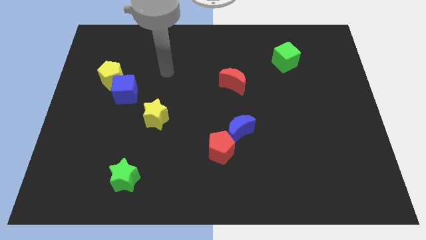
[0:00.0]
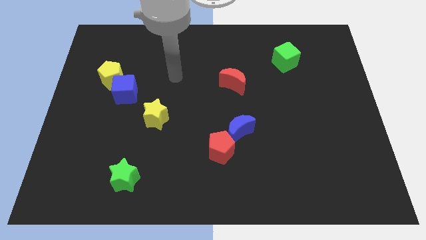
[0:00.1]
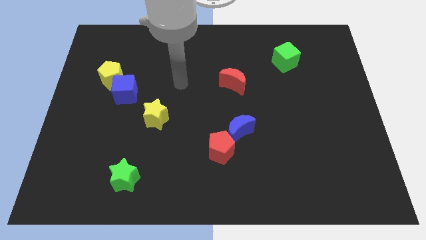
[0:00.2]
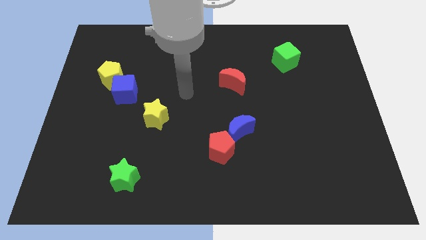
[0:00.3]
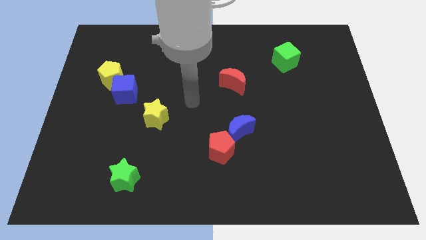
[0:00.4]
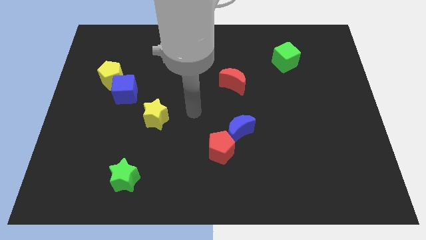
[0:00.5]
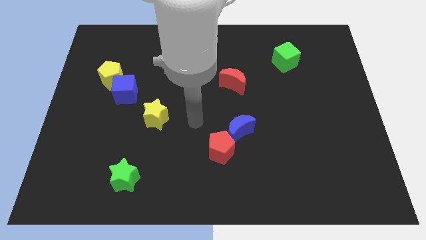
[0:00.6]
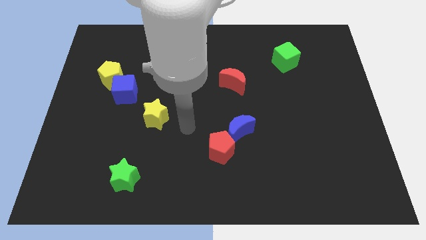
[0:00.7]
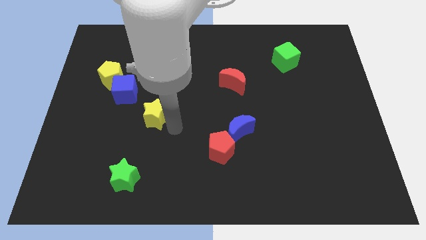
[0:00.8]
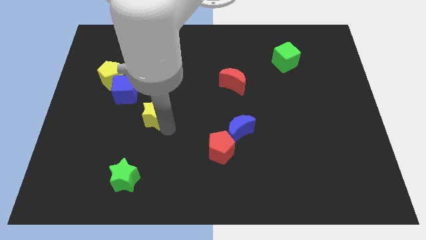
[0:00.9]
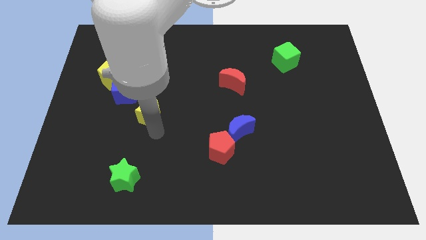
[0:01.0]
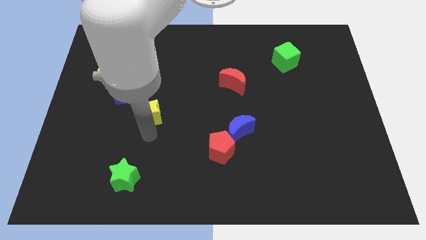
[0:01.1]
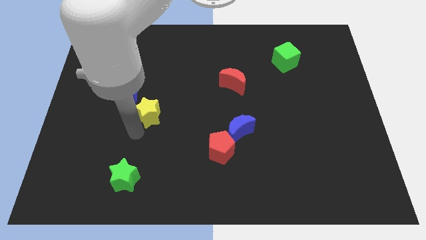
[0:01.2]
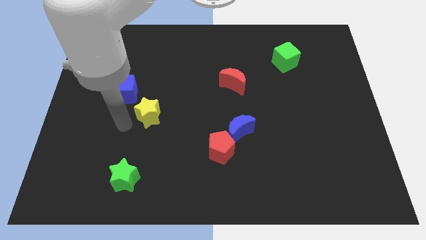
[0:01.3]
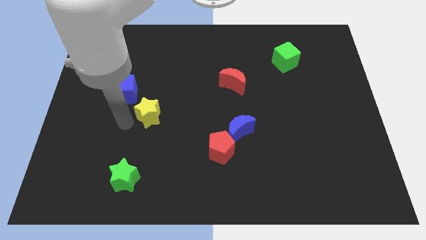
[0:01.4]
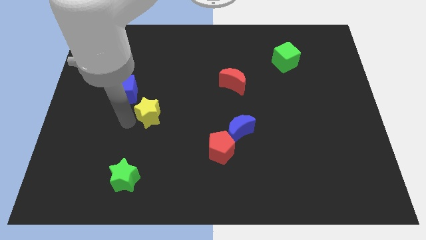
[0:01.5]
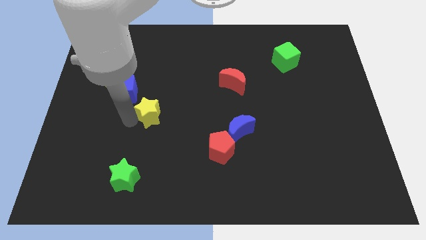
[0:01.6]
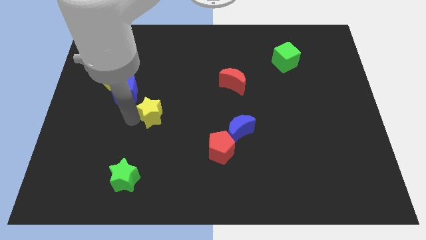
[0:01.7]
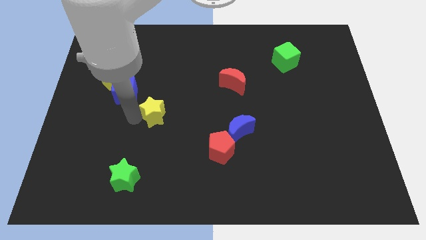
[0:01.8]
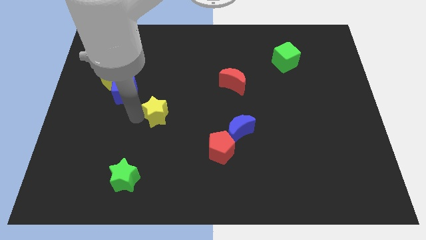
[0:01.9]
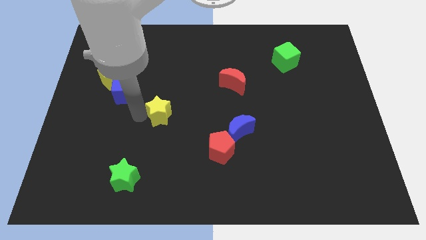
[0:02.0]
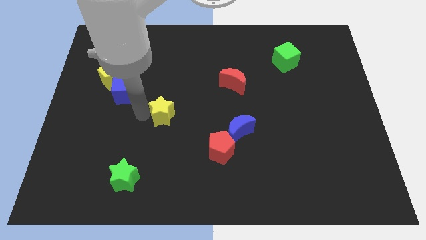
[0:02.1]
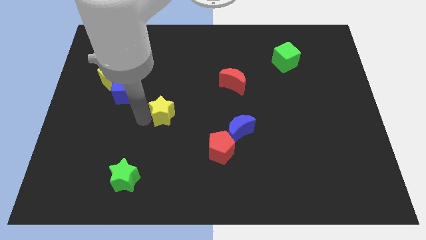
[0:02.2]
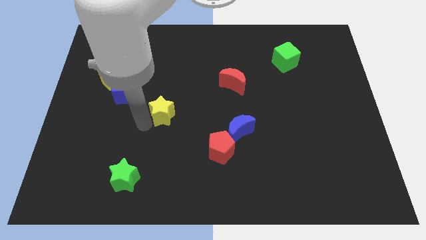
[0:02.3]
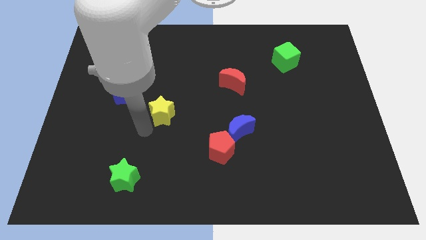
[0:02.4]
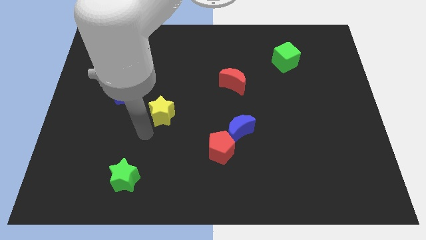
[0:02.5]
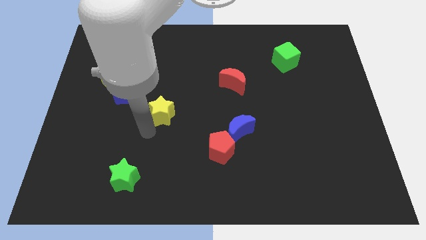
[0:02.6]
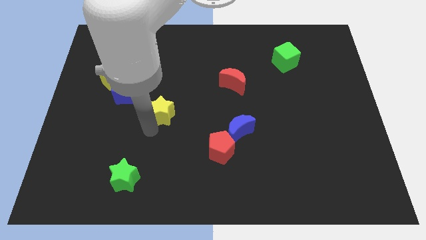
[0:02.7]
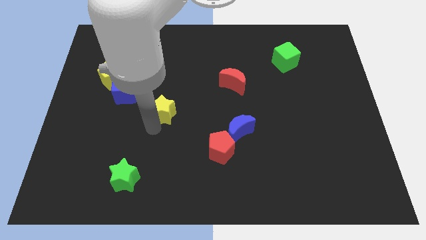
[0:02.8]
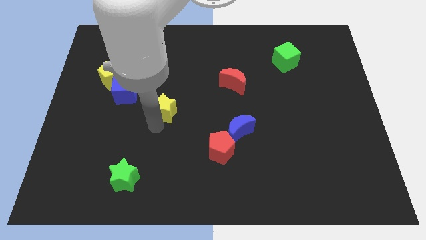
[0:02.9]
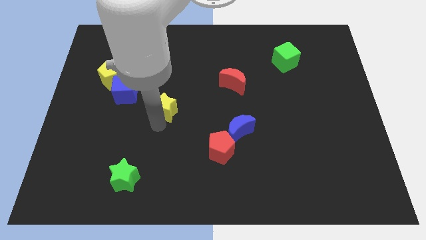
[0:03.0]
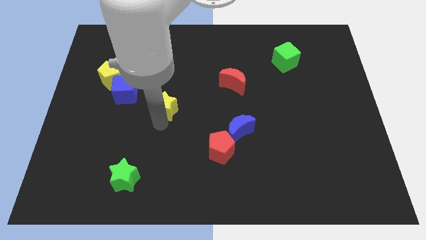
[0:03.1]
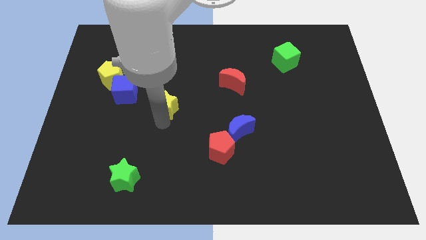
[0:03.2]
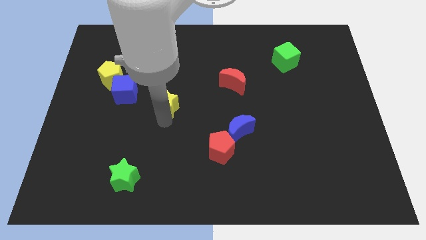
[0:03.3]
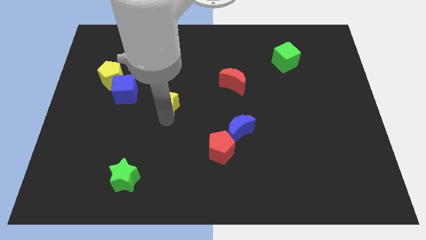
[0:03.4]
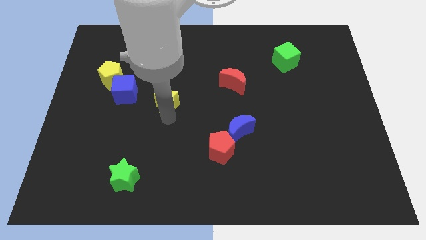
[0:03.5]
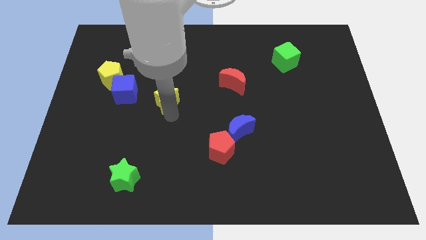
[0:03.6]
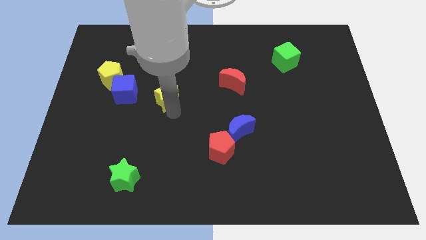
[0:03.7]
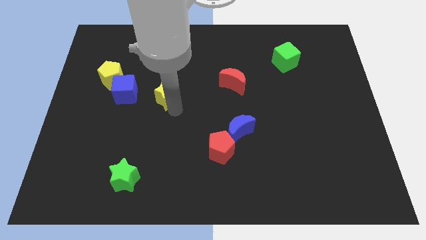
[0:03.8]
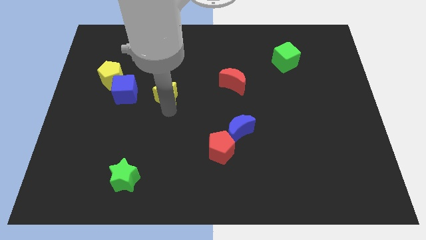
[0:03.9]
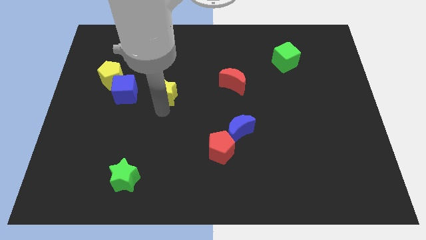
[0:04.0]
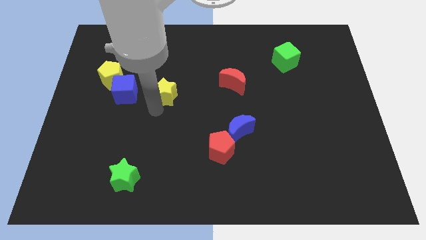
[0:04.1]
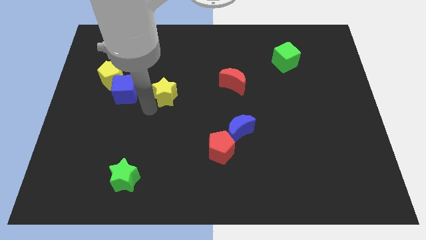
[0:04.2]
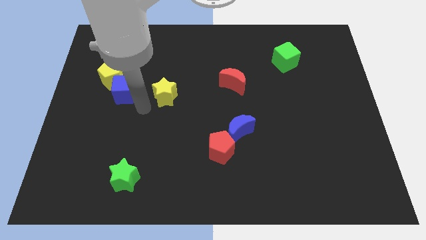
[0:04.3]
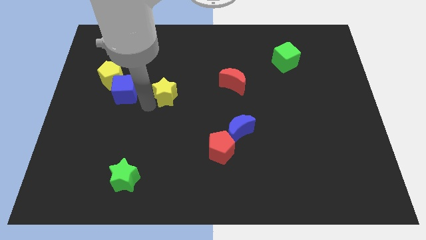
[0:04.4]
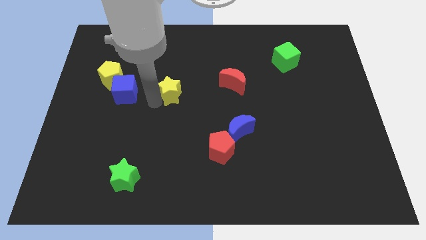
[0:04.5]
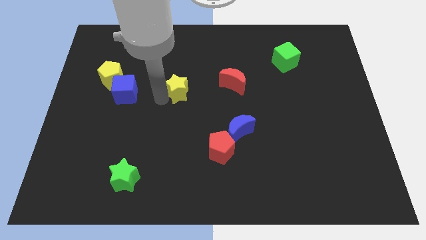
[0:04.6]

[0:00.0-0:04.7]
move the yellow star to the left of the red moon

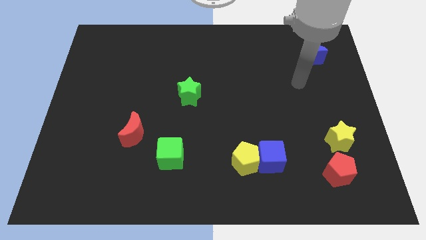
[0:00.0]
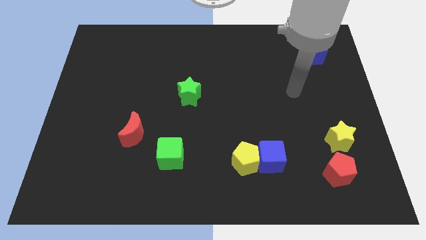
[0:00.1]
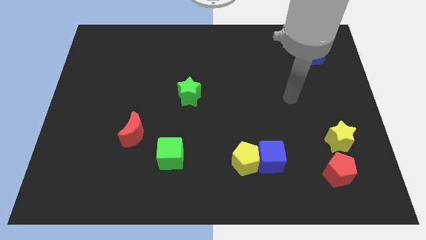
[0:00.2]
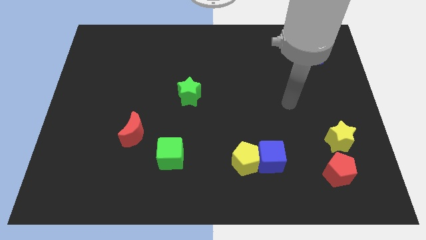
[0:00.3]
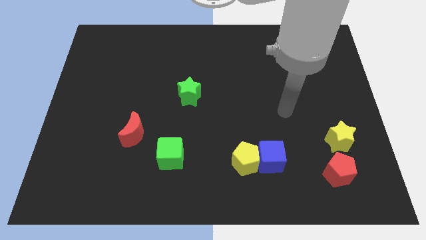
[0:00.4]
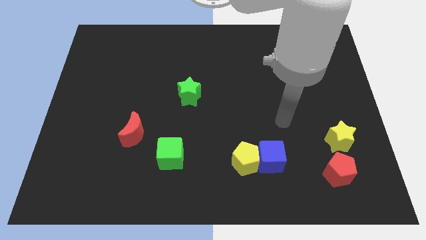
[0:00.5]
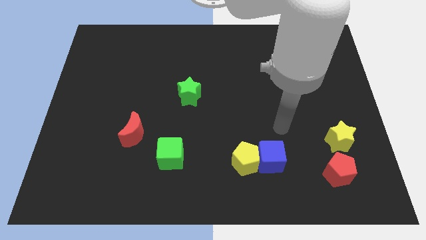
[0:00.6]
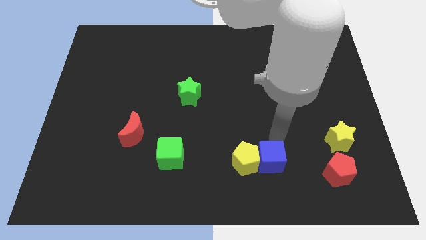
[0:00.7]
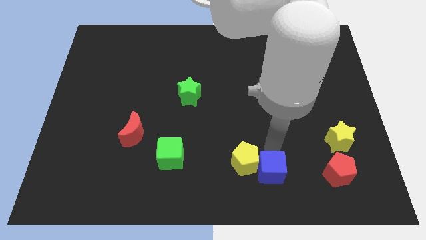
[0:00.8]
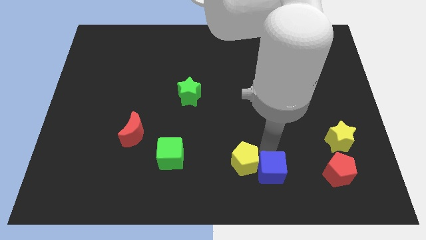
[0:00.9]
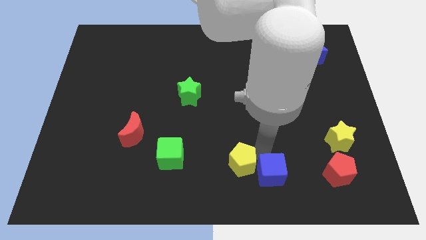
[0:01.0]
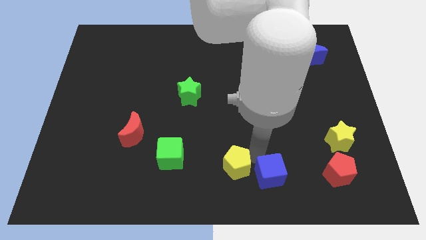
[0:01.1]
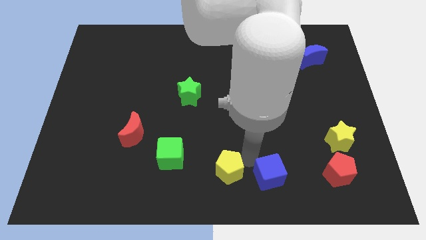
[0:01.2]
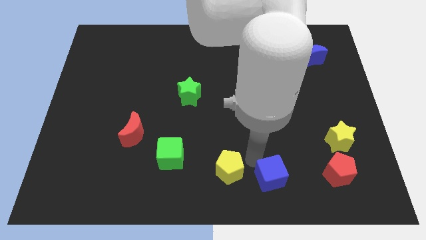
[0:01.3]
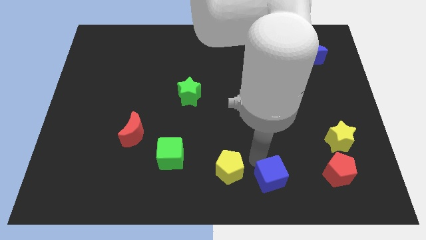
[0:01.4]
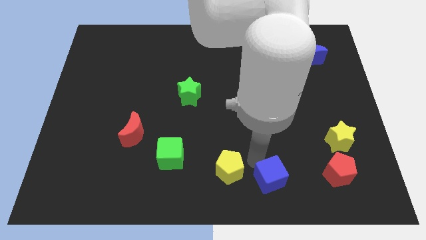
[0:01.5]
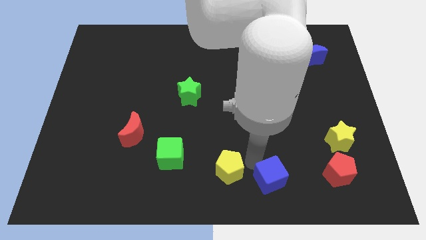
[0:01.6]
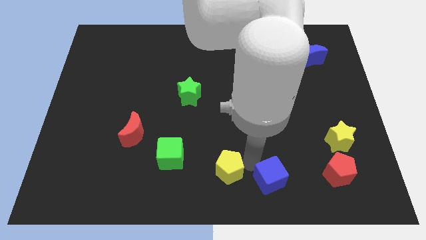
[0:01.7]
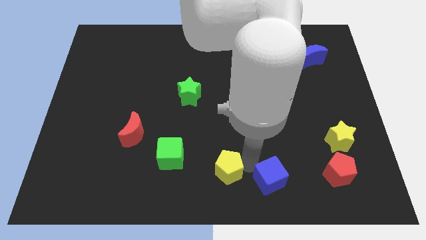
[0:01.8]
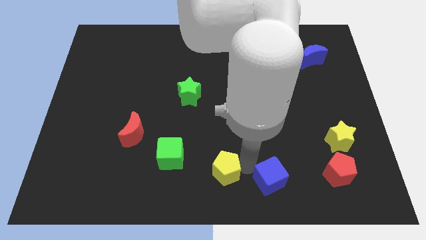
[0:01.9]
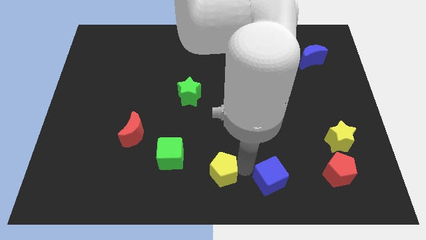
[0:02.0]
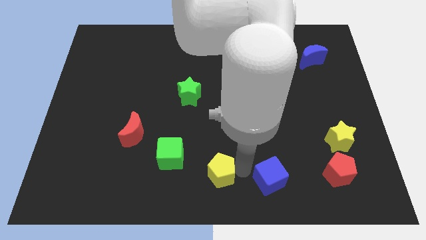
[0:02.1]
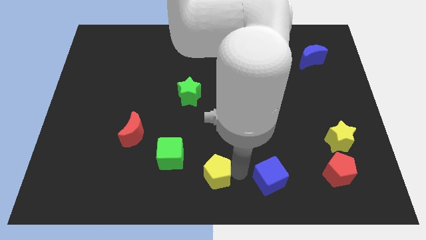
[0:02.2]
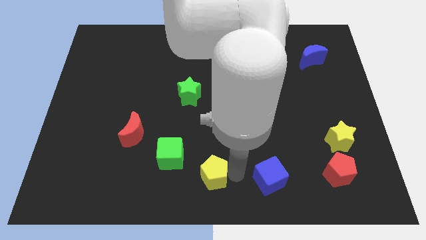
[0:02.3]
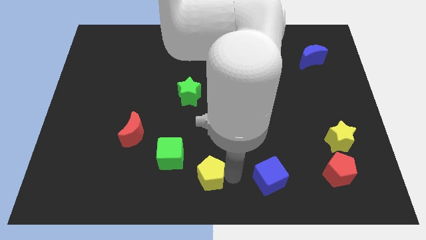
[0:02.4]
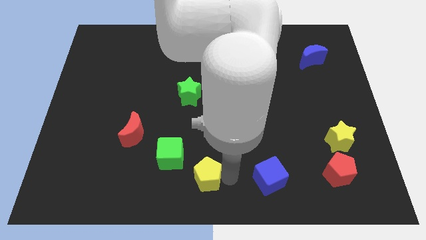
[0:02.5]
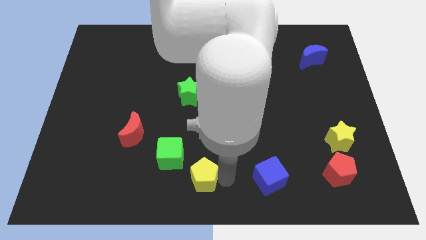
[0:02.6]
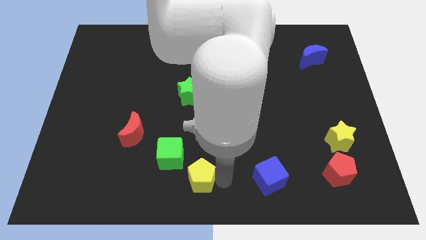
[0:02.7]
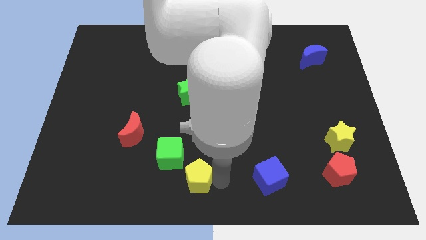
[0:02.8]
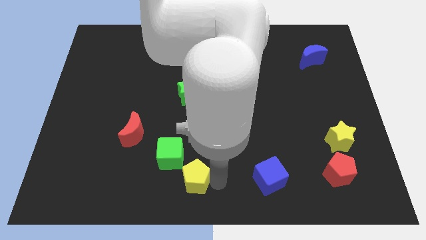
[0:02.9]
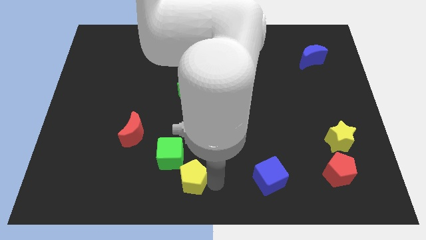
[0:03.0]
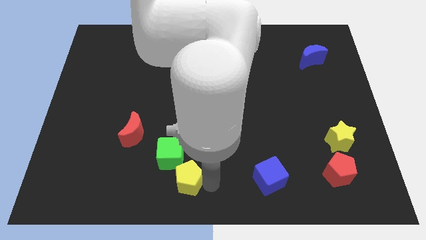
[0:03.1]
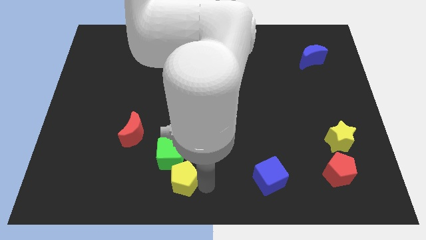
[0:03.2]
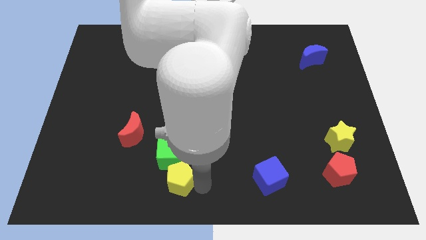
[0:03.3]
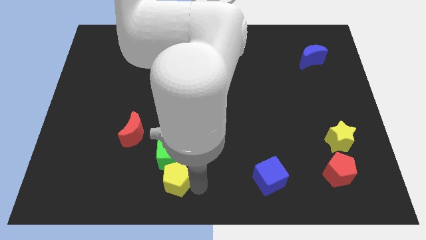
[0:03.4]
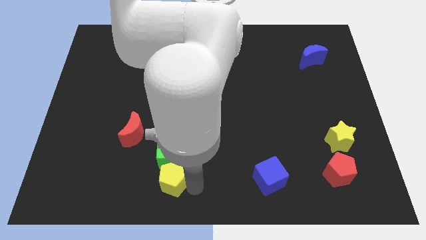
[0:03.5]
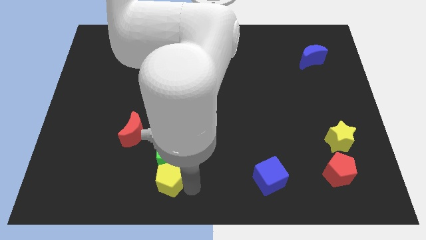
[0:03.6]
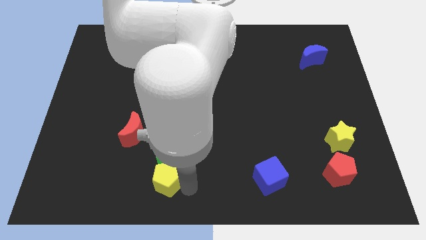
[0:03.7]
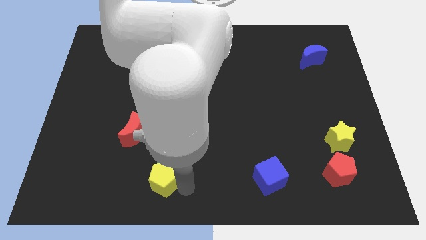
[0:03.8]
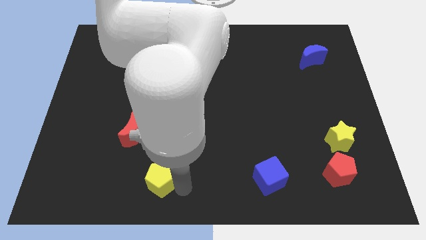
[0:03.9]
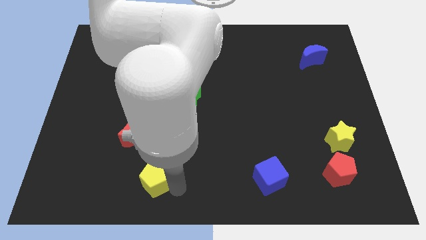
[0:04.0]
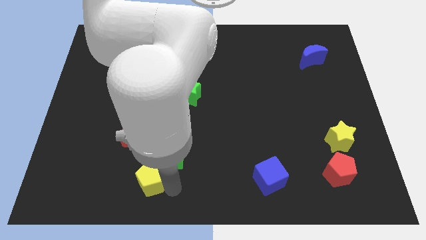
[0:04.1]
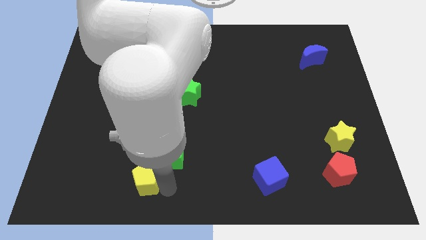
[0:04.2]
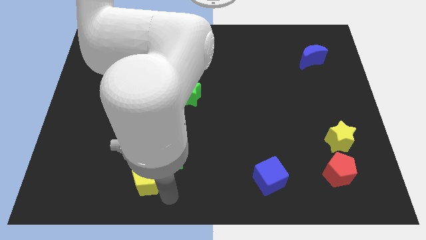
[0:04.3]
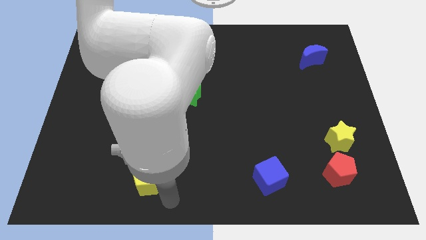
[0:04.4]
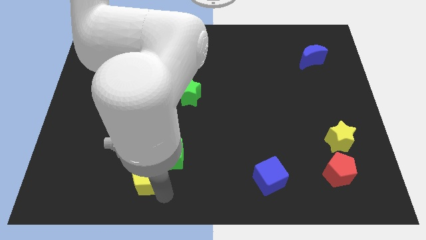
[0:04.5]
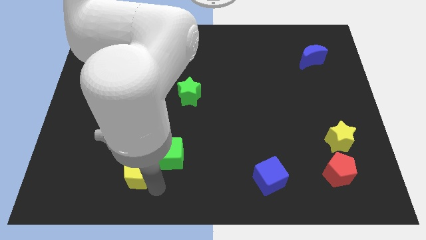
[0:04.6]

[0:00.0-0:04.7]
push the yellow pentagon to the left side of the green cube
